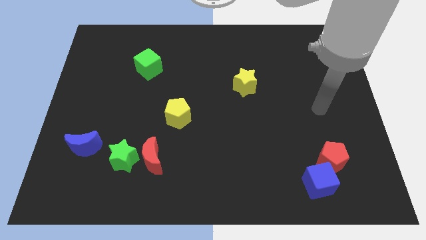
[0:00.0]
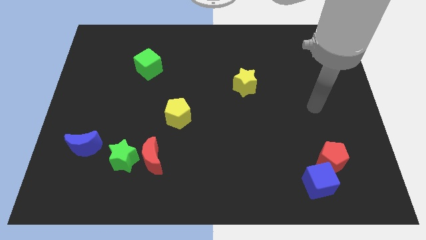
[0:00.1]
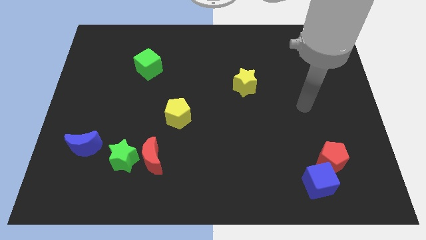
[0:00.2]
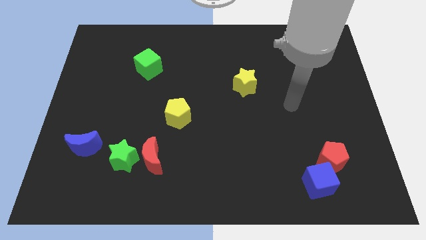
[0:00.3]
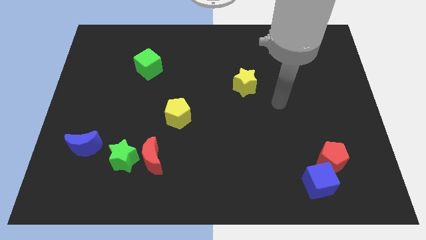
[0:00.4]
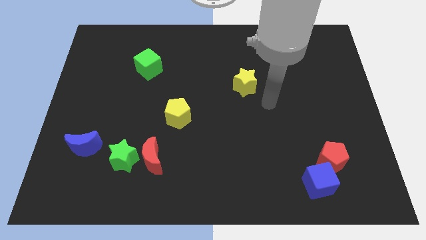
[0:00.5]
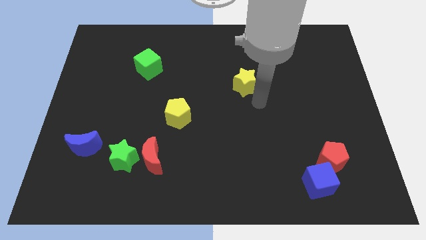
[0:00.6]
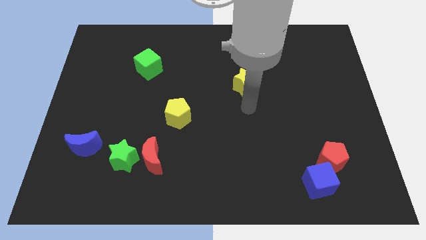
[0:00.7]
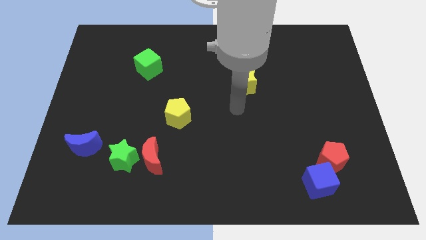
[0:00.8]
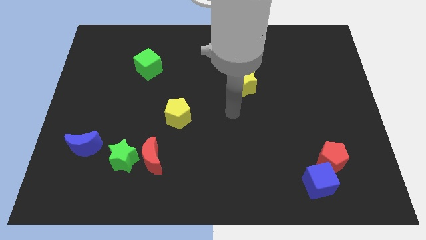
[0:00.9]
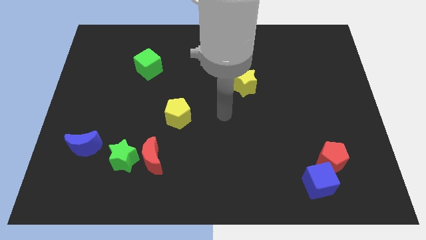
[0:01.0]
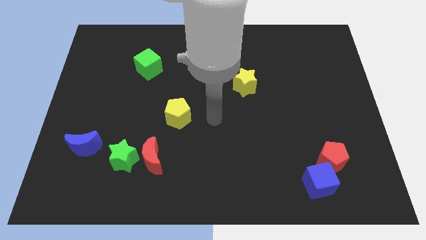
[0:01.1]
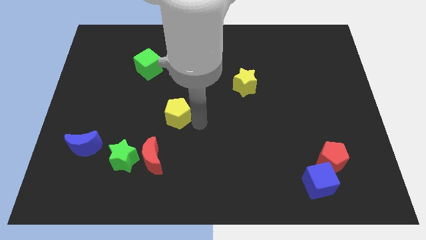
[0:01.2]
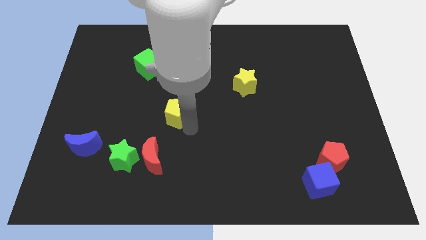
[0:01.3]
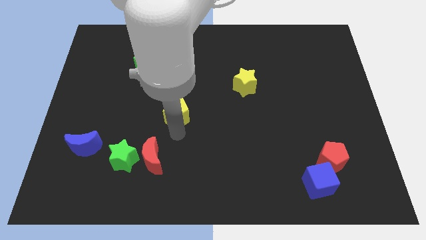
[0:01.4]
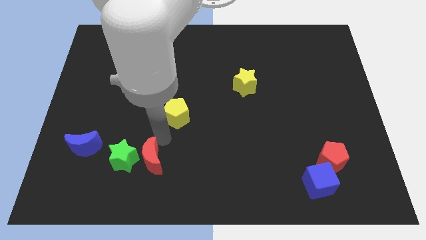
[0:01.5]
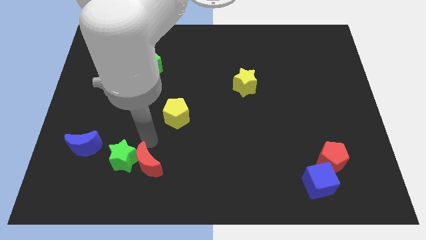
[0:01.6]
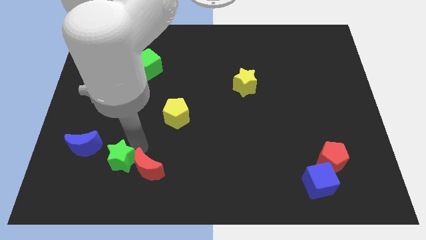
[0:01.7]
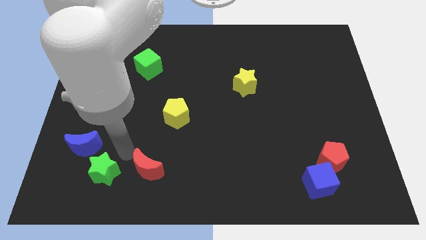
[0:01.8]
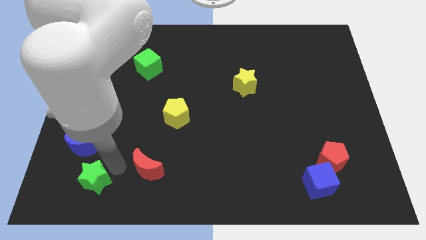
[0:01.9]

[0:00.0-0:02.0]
move the red moon away from the green star

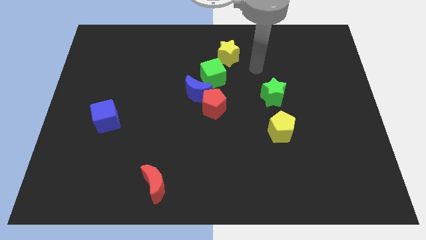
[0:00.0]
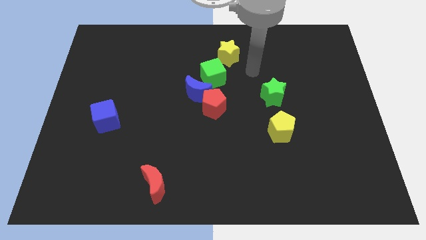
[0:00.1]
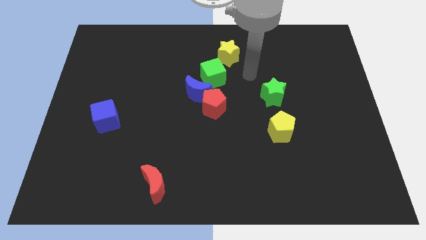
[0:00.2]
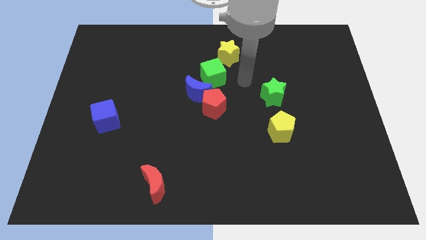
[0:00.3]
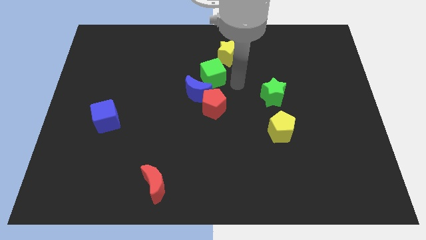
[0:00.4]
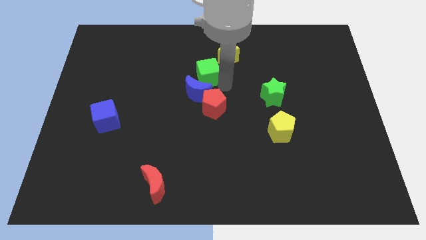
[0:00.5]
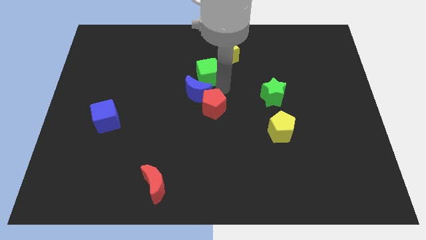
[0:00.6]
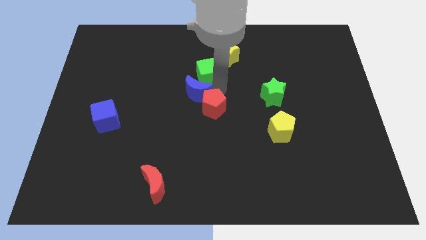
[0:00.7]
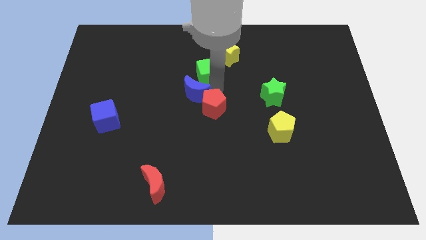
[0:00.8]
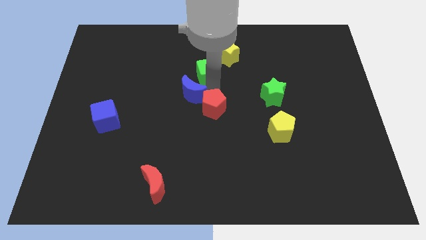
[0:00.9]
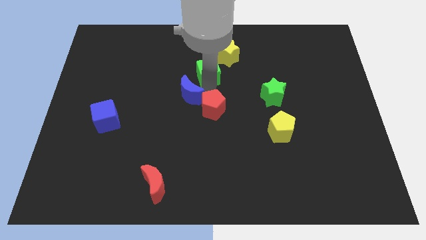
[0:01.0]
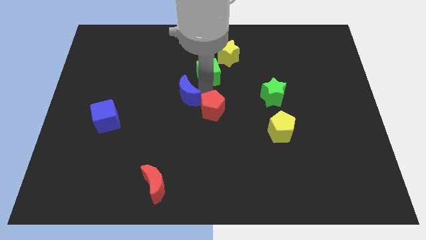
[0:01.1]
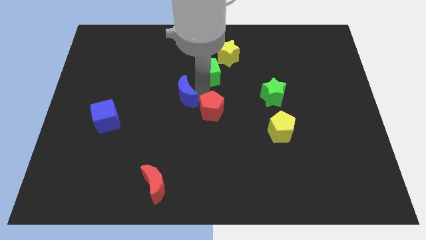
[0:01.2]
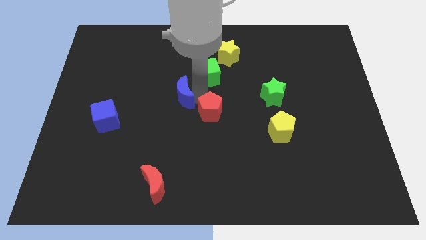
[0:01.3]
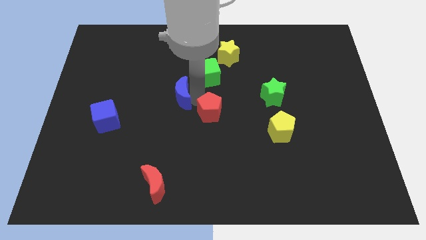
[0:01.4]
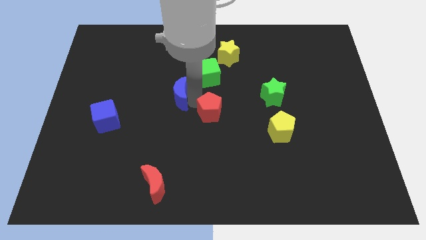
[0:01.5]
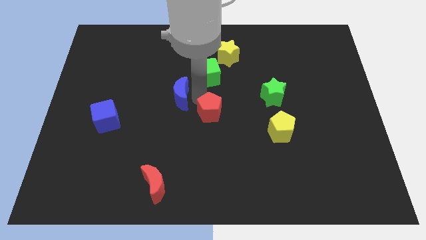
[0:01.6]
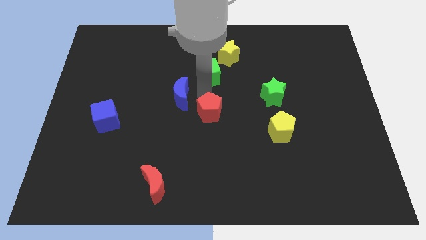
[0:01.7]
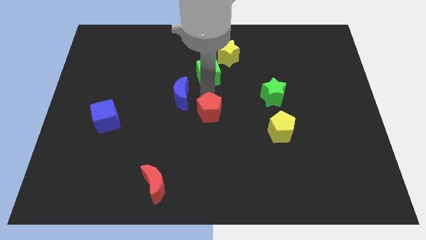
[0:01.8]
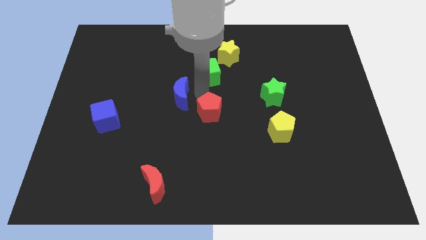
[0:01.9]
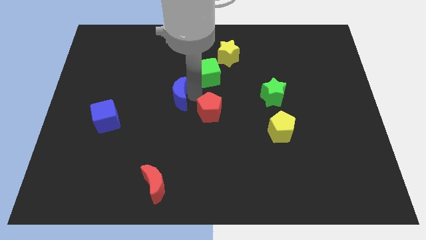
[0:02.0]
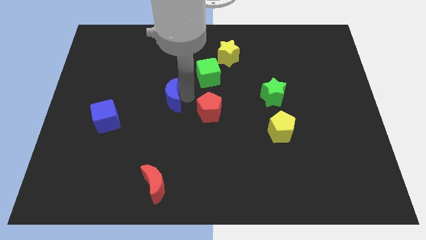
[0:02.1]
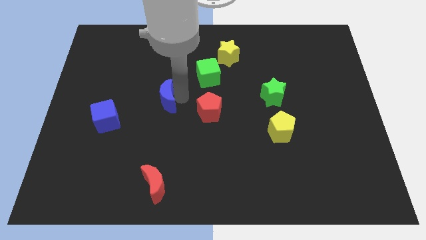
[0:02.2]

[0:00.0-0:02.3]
pull the blue moon apart from the red pentagon and green cube

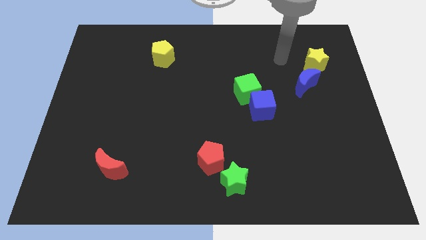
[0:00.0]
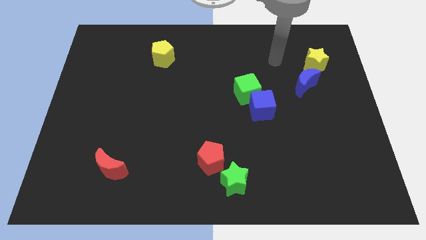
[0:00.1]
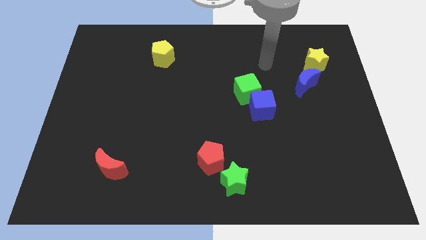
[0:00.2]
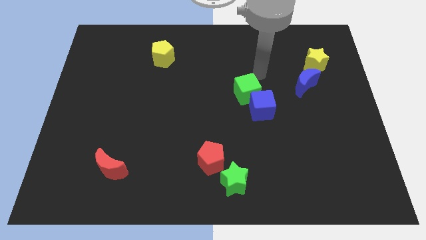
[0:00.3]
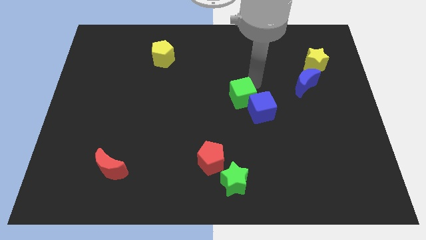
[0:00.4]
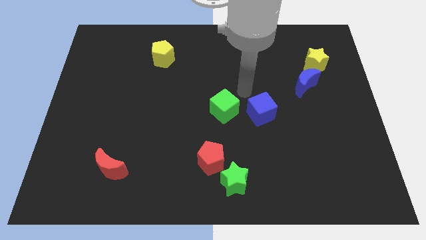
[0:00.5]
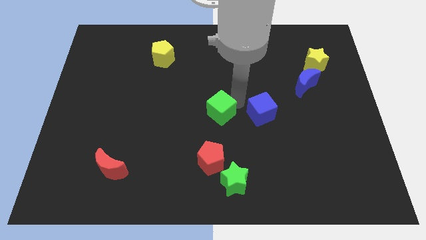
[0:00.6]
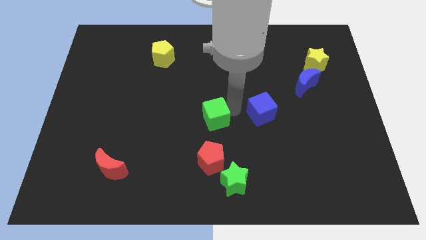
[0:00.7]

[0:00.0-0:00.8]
separate the blue cube from the green cube

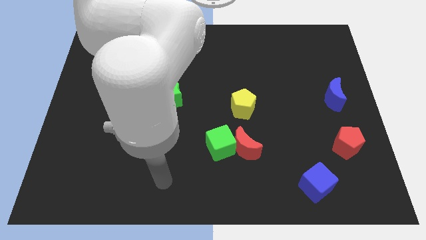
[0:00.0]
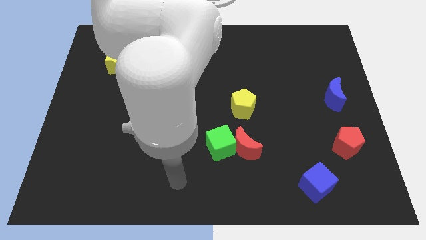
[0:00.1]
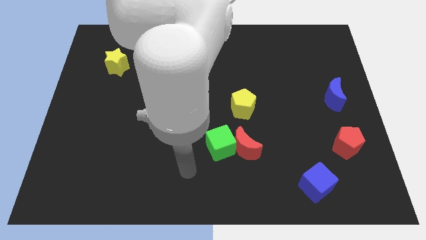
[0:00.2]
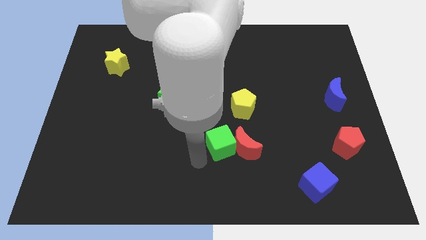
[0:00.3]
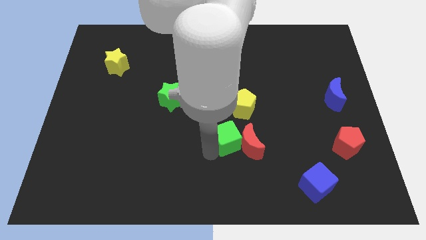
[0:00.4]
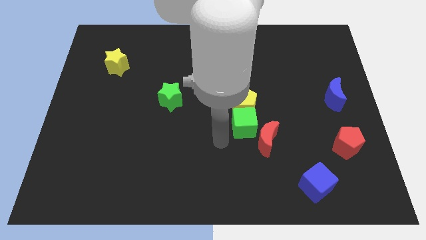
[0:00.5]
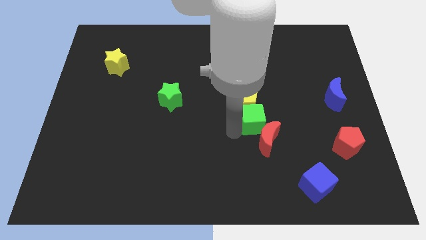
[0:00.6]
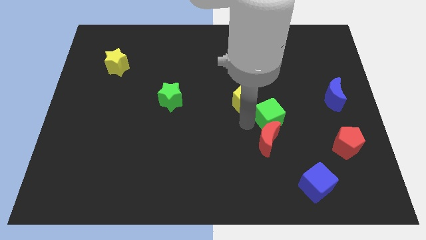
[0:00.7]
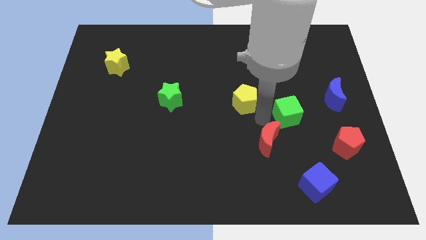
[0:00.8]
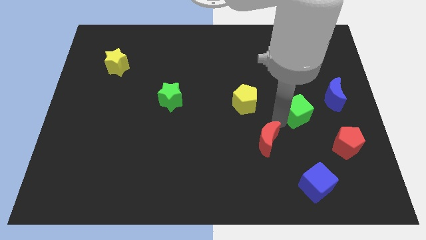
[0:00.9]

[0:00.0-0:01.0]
separate the red moon from the green cube

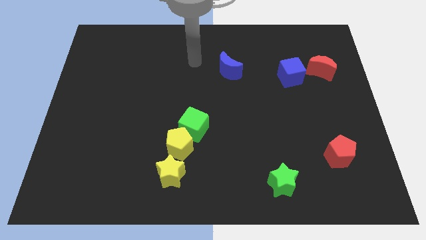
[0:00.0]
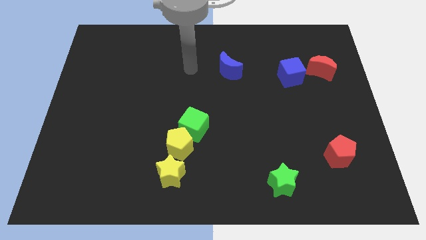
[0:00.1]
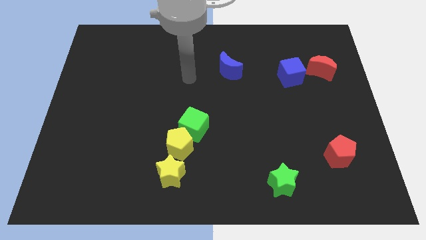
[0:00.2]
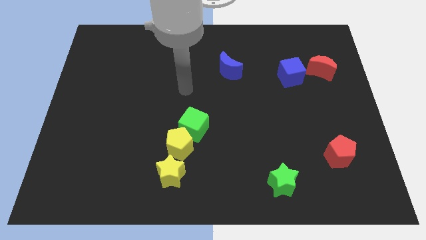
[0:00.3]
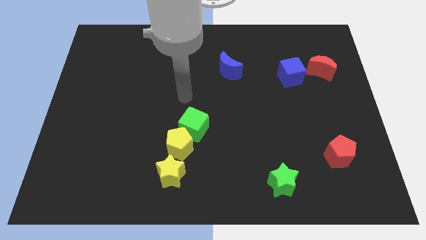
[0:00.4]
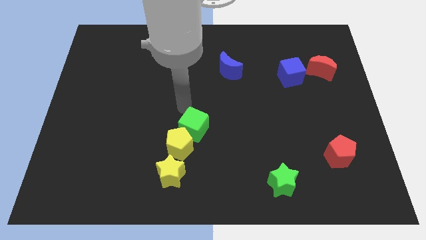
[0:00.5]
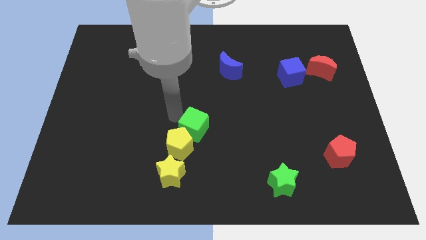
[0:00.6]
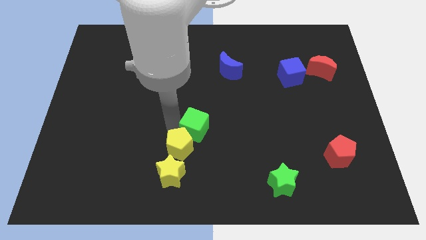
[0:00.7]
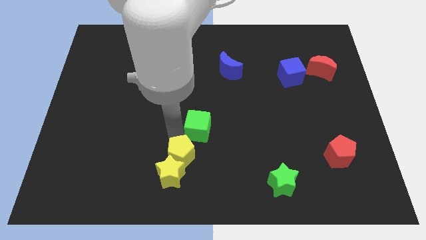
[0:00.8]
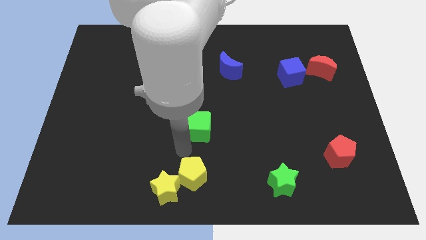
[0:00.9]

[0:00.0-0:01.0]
move the green cube away from the yellow pentagon

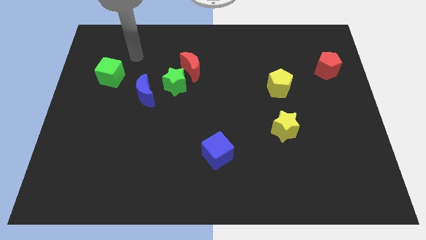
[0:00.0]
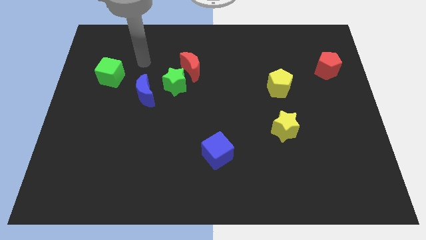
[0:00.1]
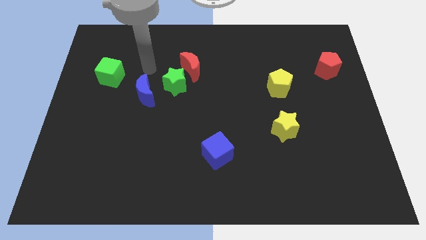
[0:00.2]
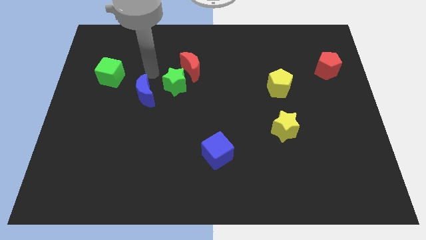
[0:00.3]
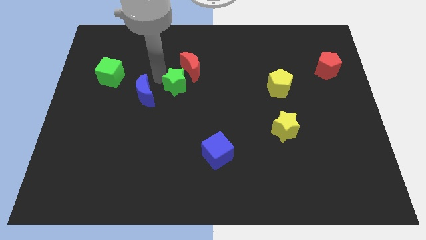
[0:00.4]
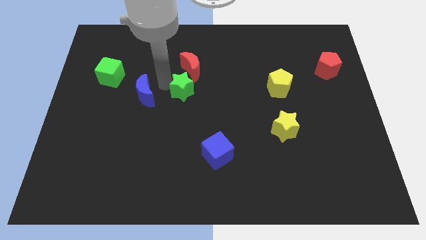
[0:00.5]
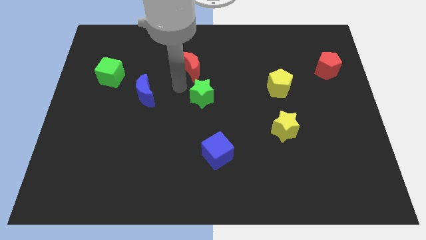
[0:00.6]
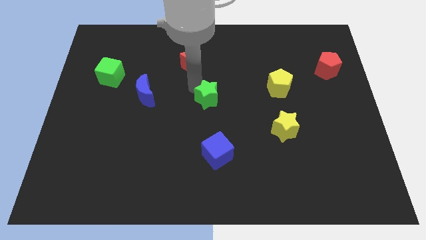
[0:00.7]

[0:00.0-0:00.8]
pull the red moon apart from the green star

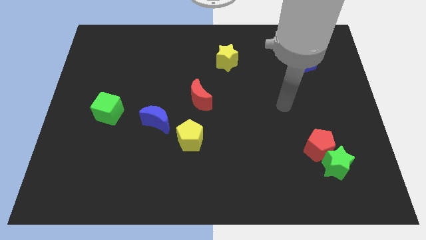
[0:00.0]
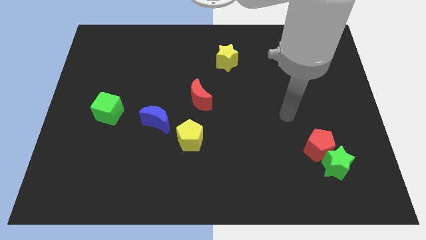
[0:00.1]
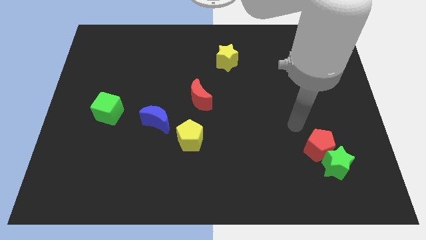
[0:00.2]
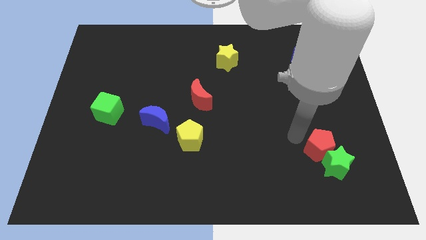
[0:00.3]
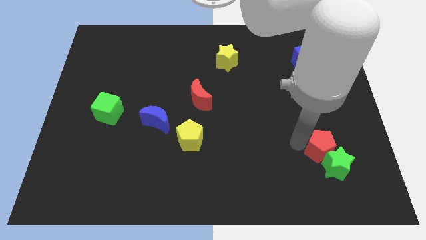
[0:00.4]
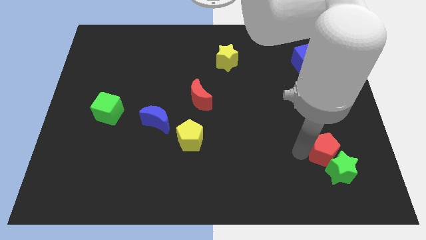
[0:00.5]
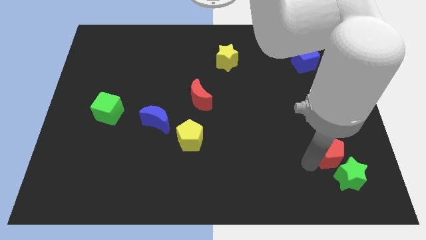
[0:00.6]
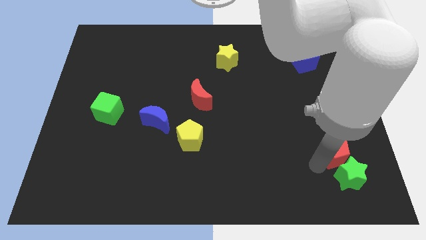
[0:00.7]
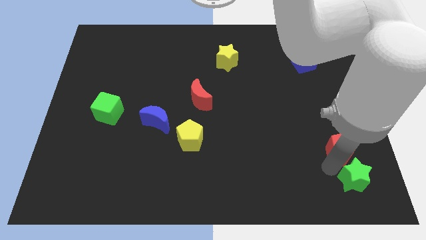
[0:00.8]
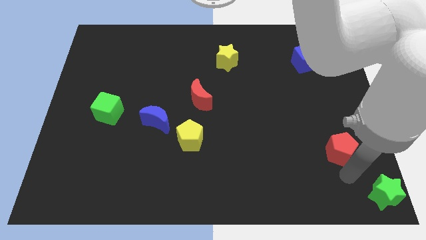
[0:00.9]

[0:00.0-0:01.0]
pull the red pentagon apart from the green star

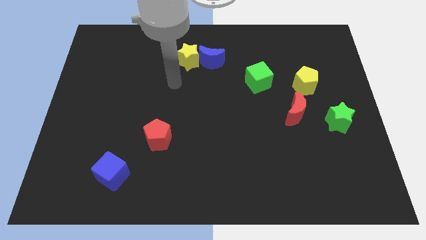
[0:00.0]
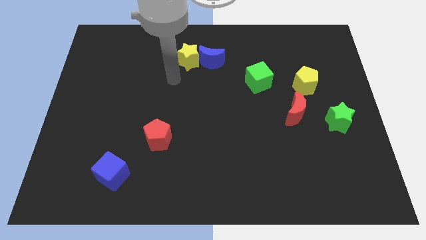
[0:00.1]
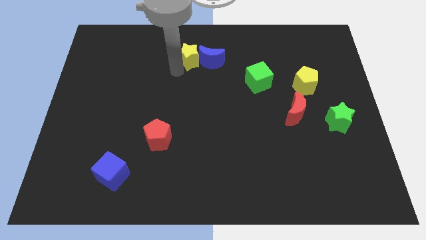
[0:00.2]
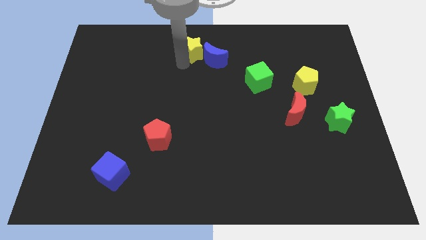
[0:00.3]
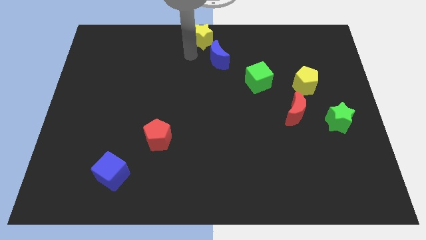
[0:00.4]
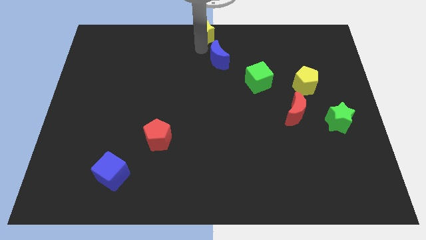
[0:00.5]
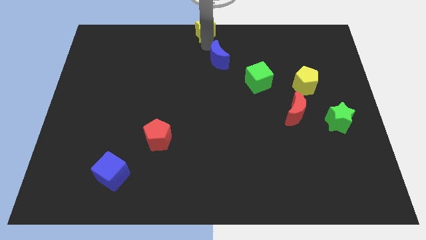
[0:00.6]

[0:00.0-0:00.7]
pull the blue moon apart from the yellow star
